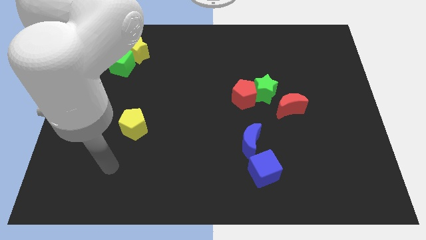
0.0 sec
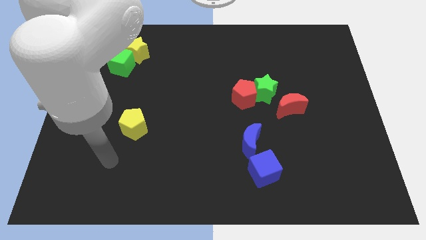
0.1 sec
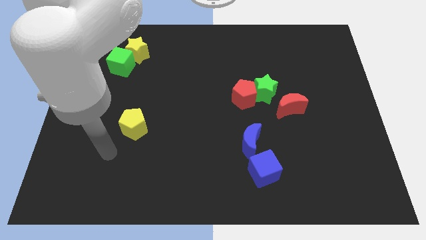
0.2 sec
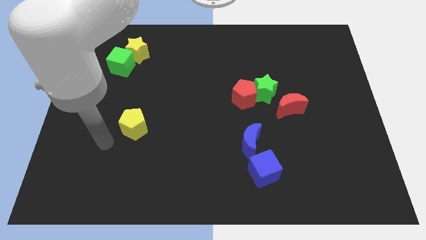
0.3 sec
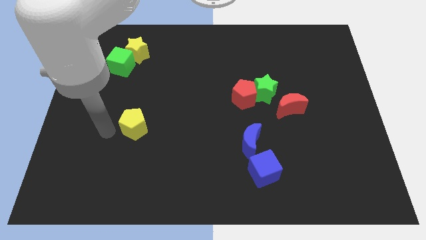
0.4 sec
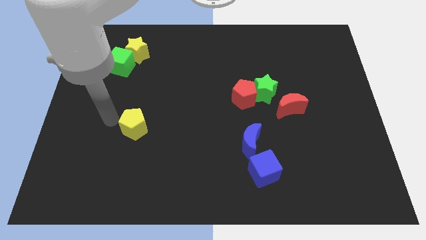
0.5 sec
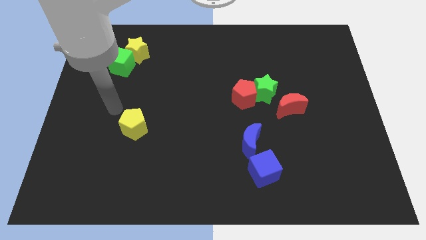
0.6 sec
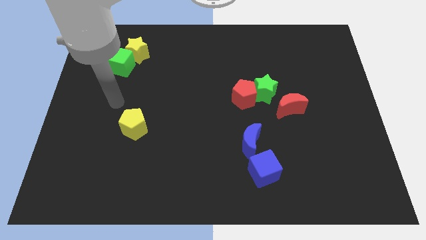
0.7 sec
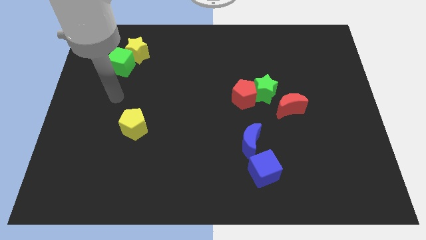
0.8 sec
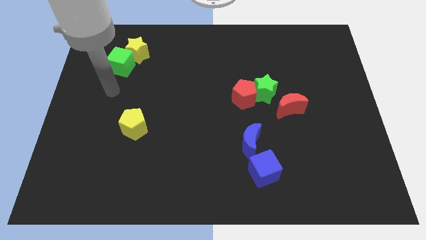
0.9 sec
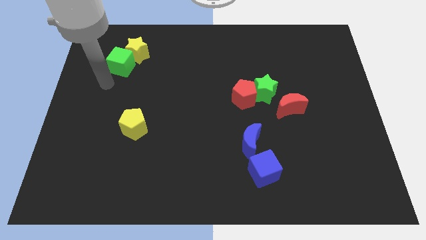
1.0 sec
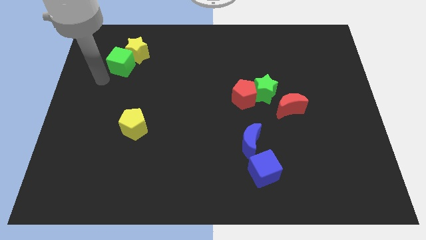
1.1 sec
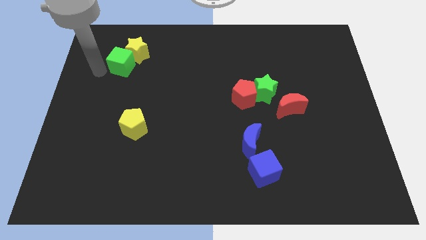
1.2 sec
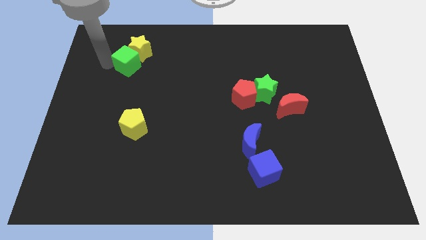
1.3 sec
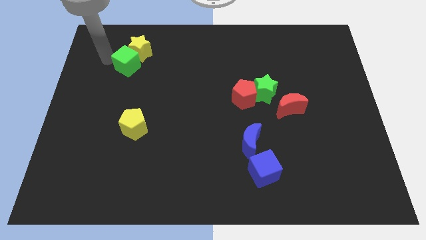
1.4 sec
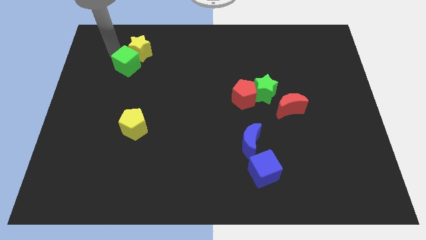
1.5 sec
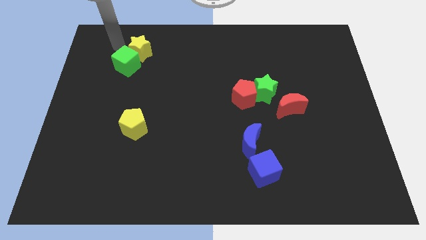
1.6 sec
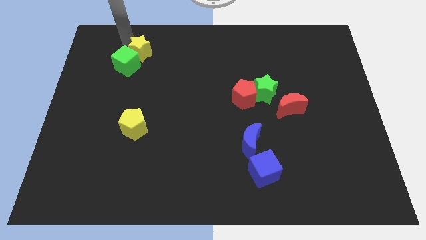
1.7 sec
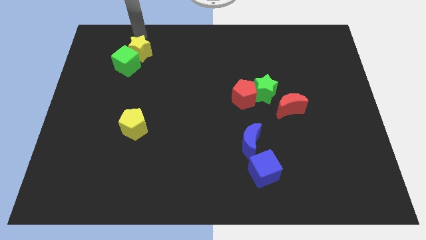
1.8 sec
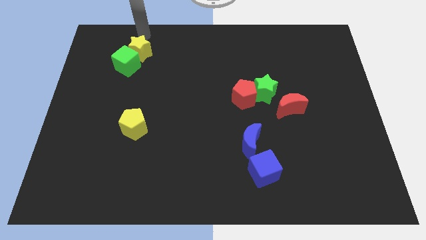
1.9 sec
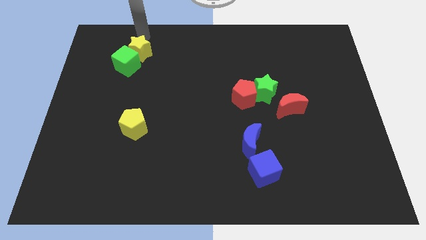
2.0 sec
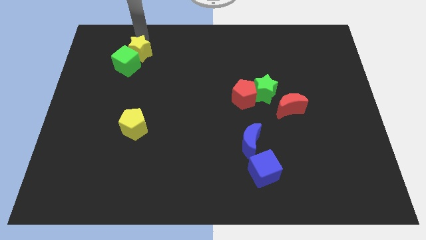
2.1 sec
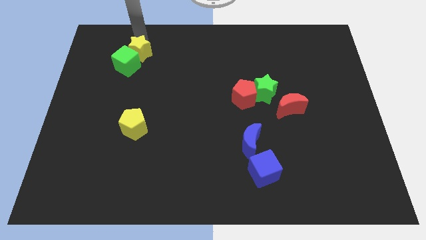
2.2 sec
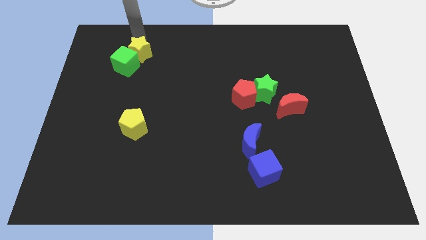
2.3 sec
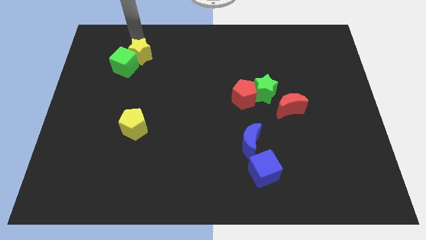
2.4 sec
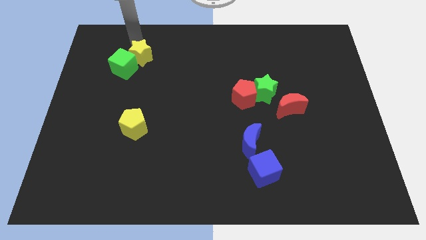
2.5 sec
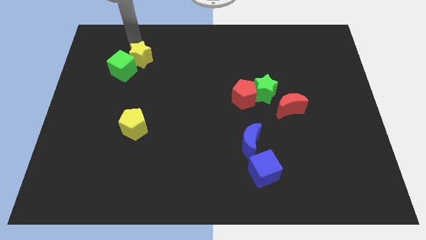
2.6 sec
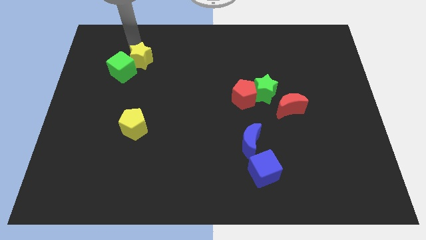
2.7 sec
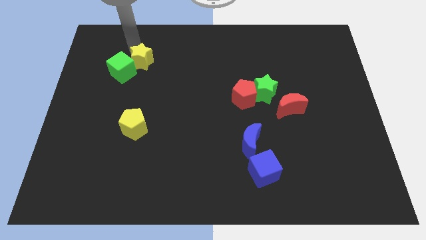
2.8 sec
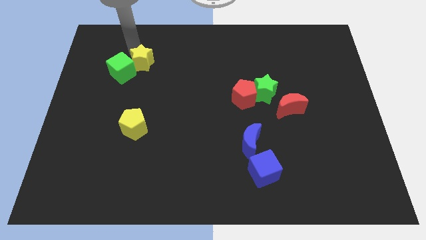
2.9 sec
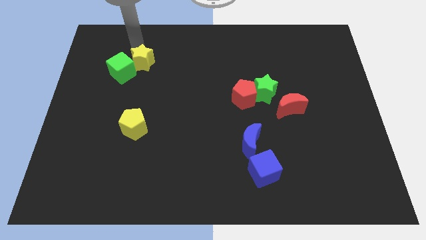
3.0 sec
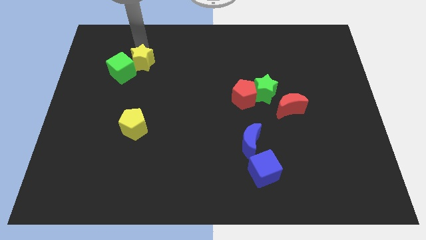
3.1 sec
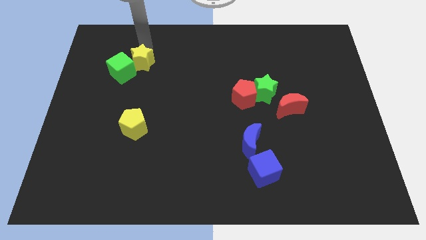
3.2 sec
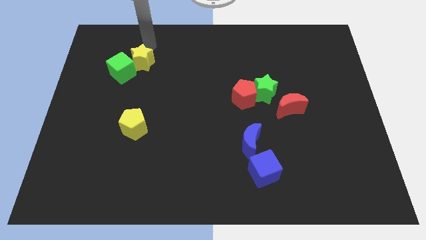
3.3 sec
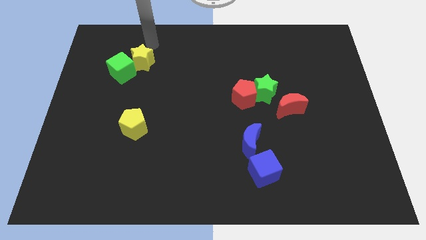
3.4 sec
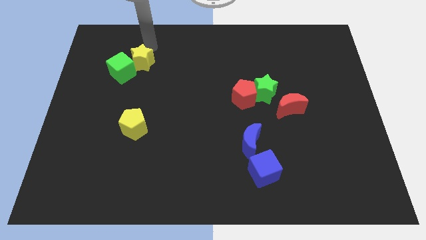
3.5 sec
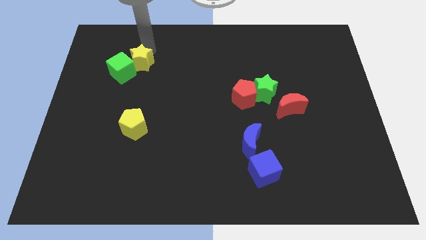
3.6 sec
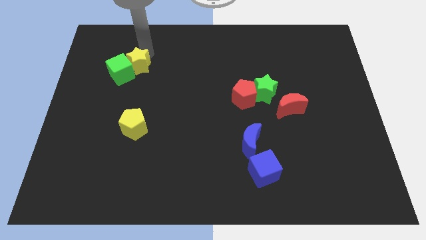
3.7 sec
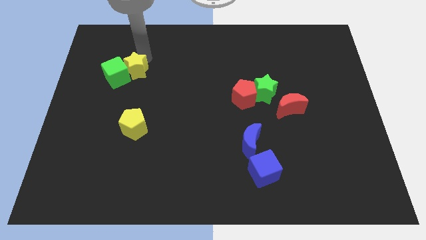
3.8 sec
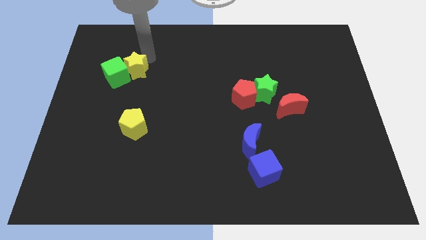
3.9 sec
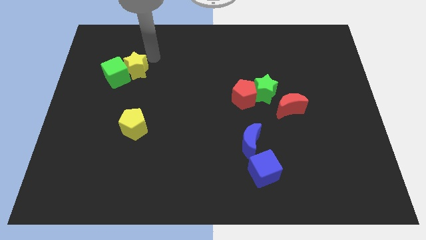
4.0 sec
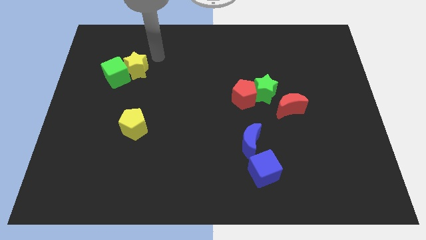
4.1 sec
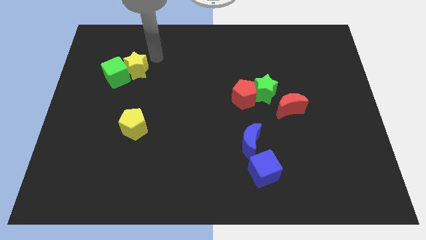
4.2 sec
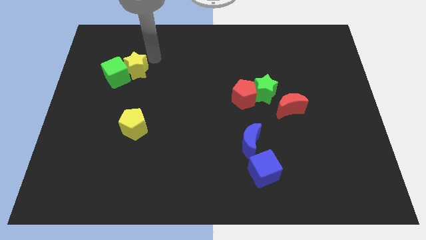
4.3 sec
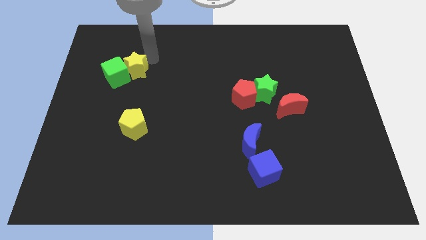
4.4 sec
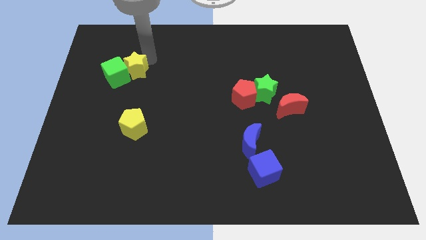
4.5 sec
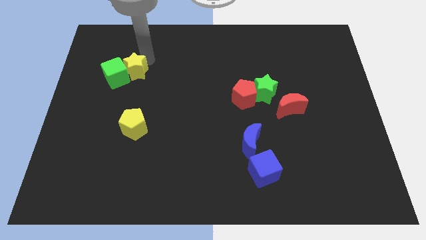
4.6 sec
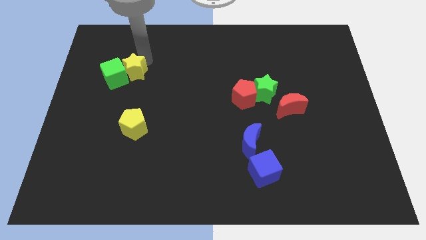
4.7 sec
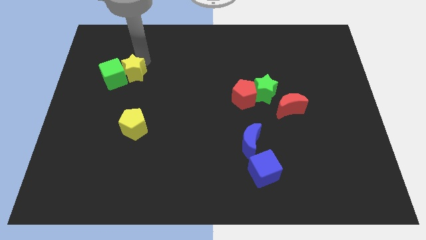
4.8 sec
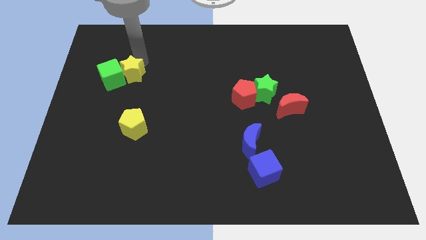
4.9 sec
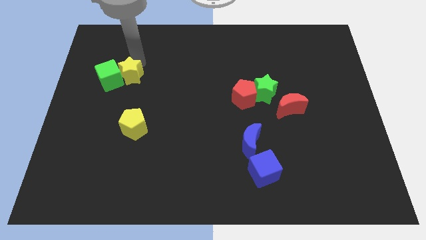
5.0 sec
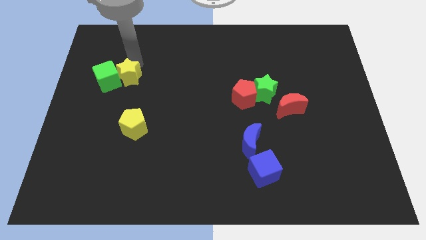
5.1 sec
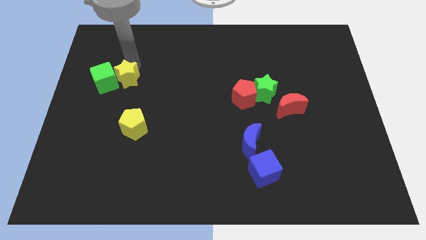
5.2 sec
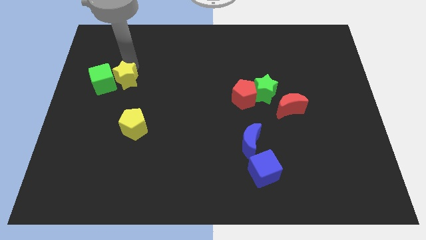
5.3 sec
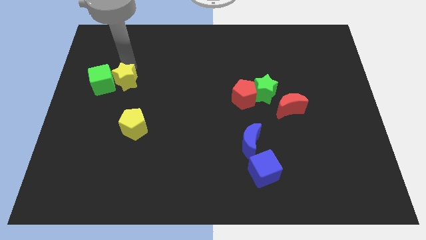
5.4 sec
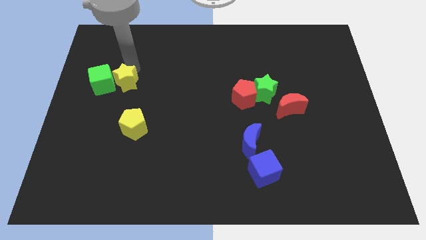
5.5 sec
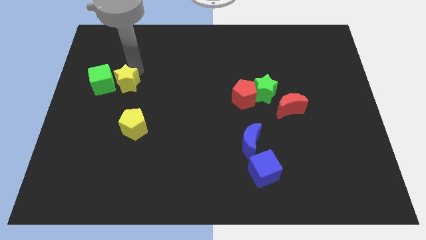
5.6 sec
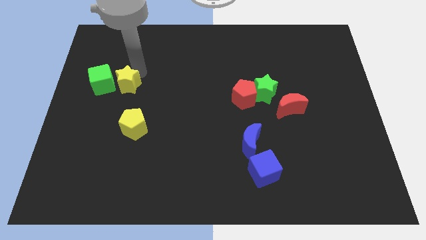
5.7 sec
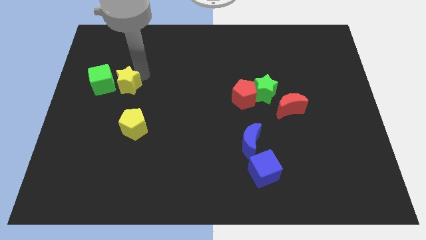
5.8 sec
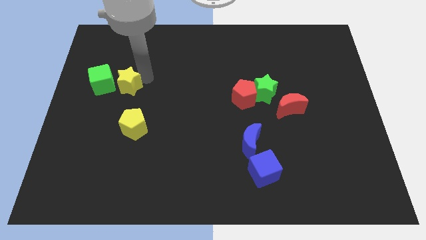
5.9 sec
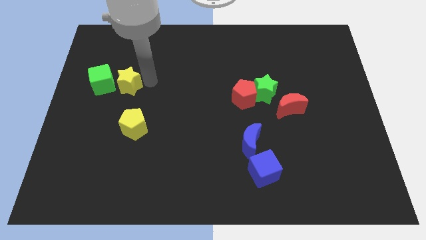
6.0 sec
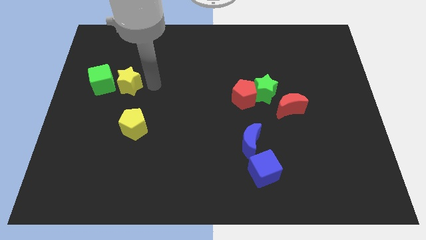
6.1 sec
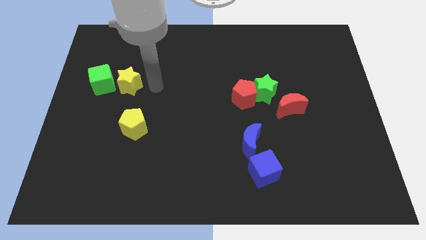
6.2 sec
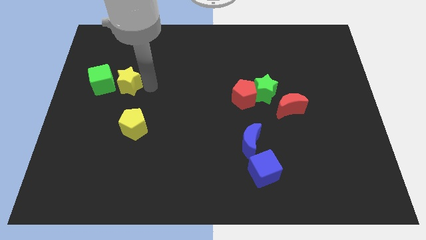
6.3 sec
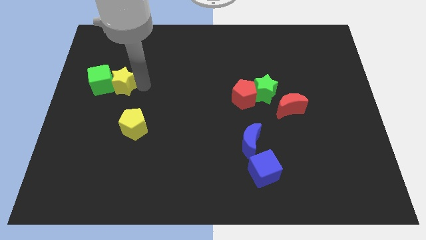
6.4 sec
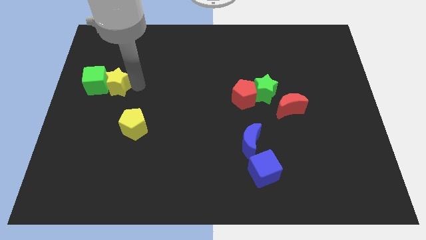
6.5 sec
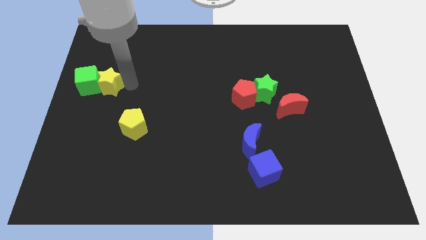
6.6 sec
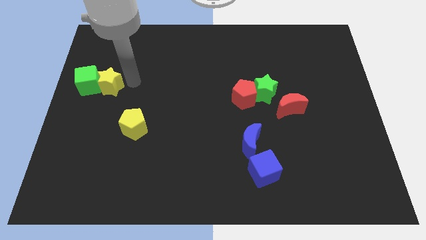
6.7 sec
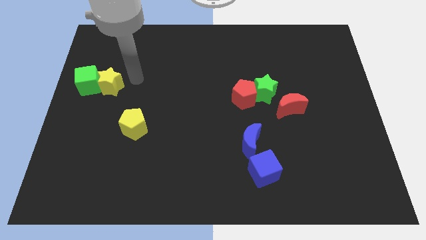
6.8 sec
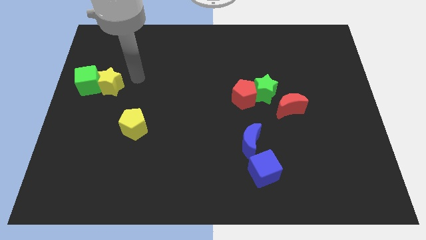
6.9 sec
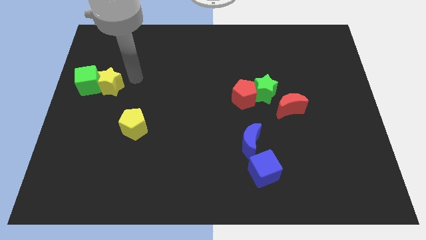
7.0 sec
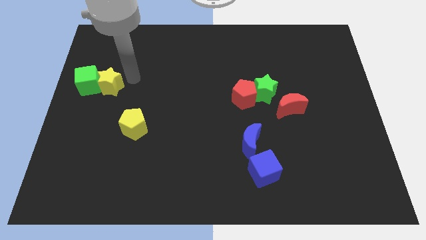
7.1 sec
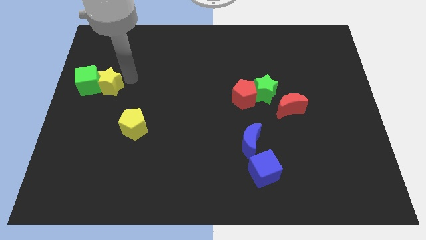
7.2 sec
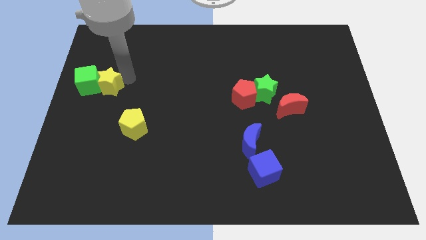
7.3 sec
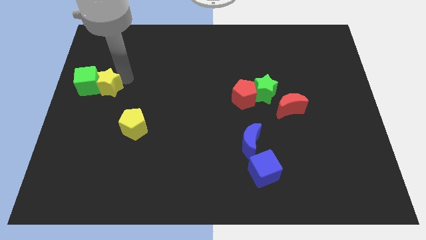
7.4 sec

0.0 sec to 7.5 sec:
push the yellow star to the center left
